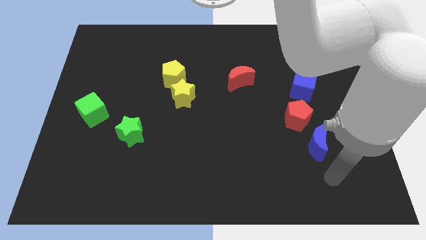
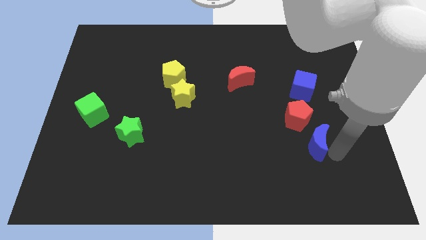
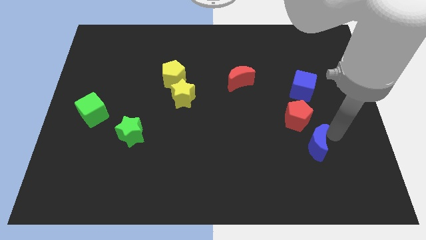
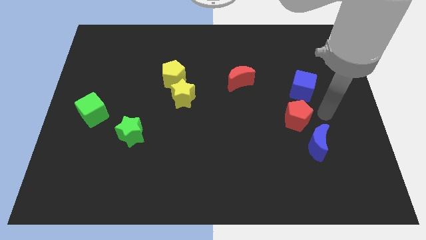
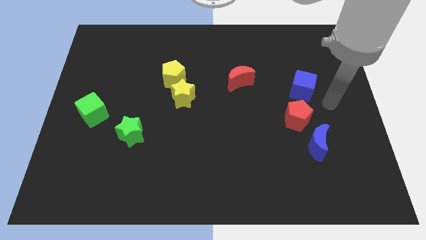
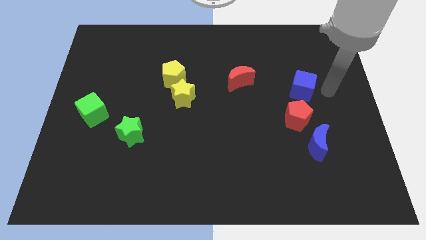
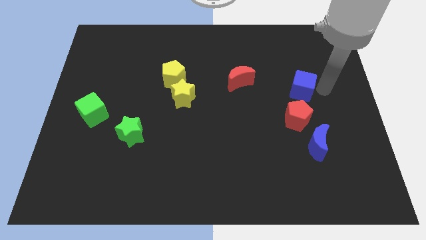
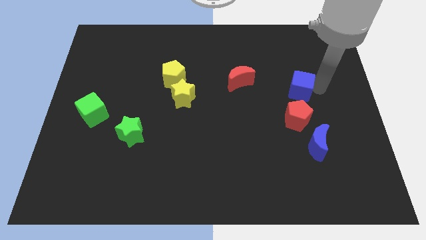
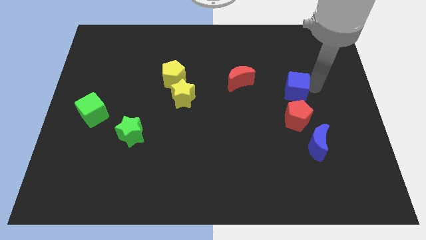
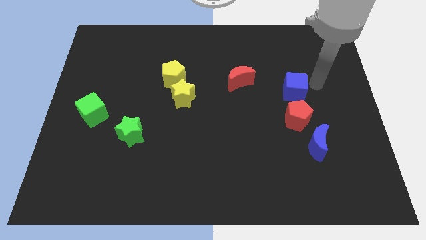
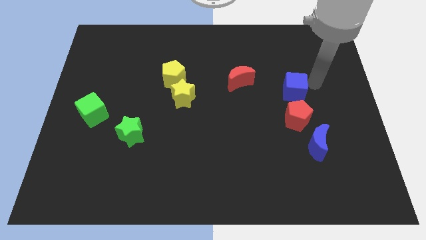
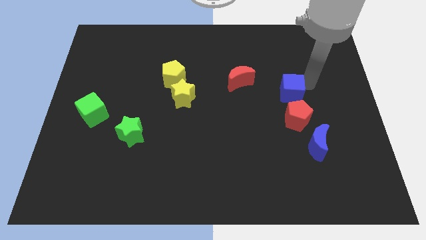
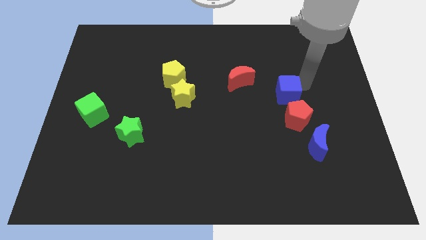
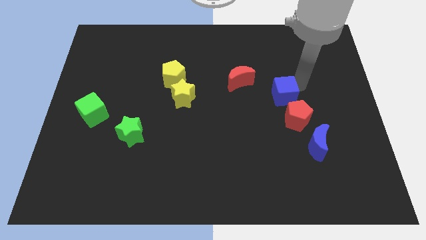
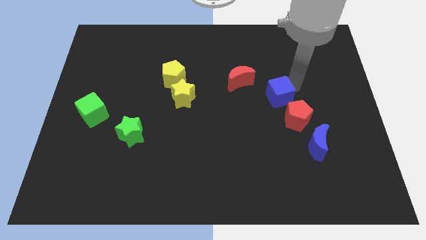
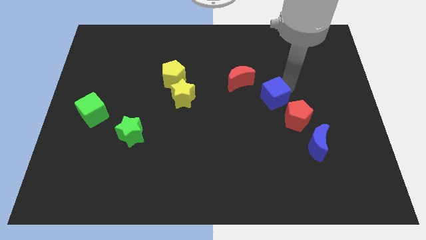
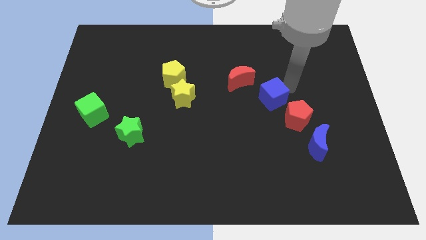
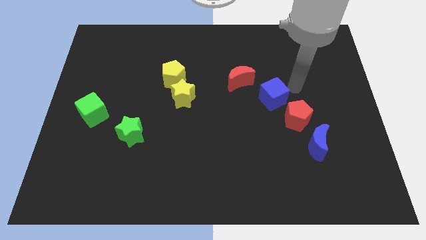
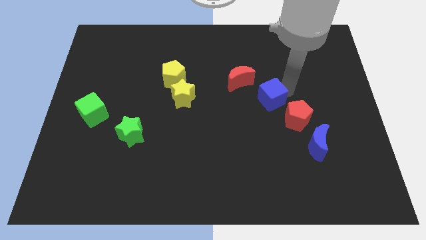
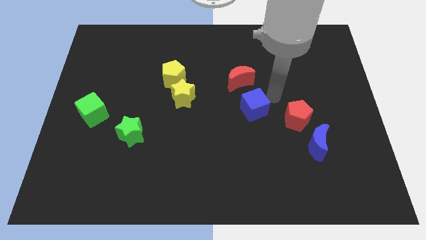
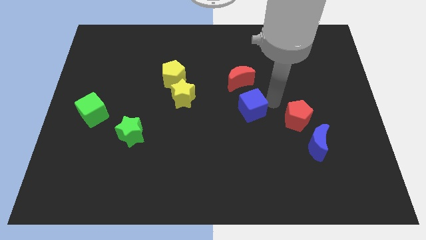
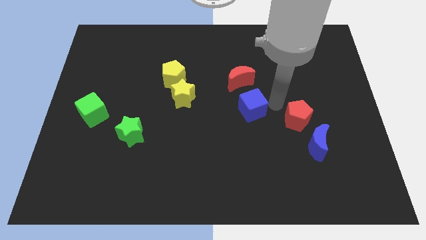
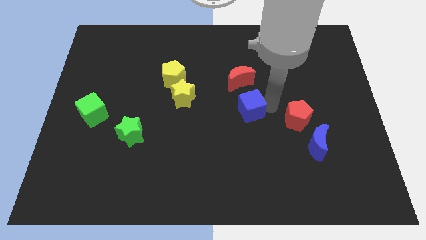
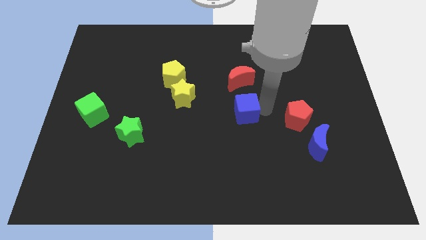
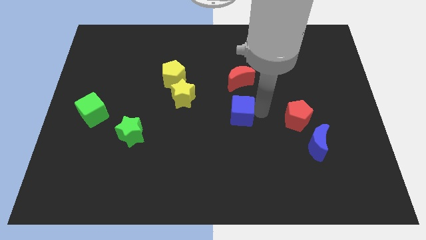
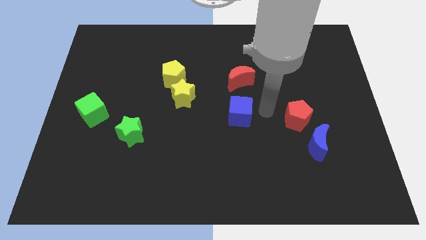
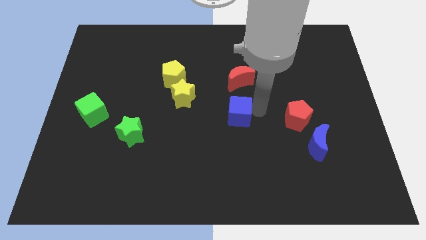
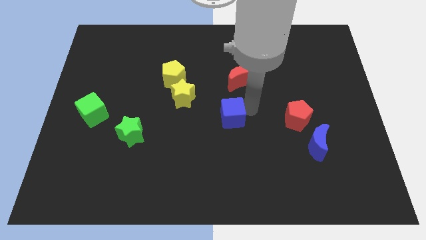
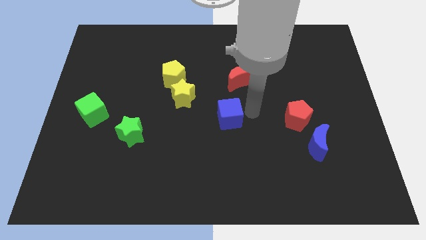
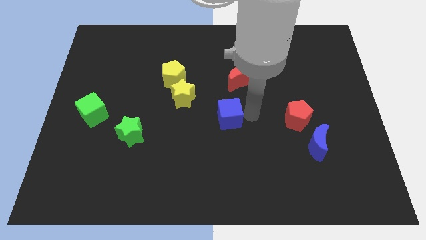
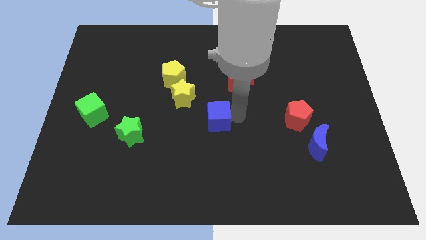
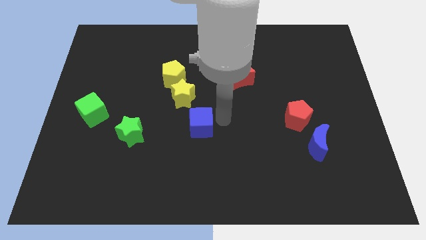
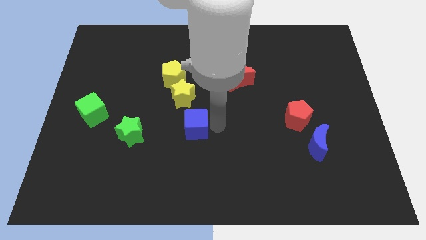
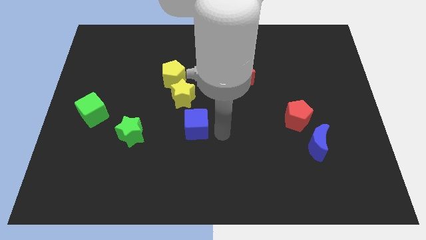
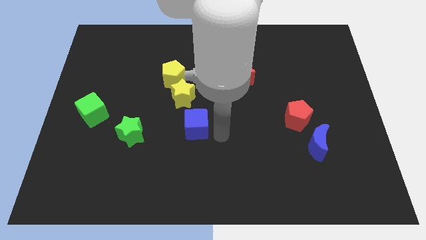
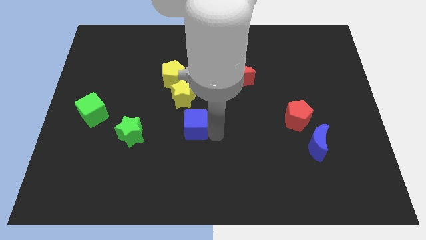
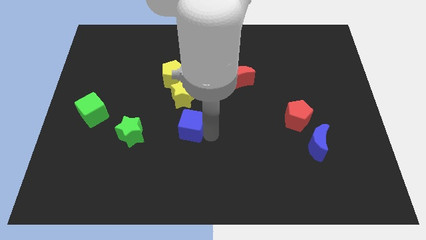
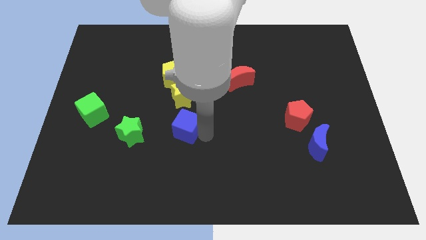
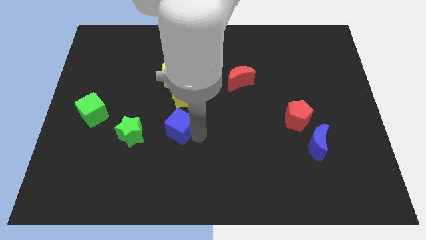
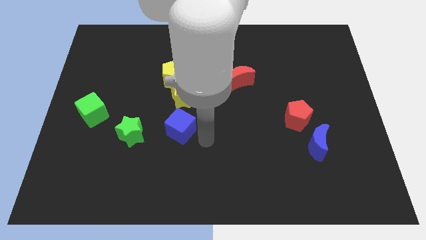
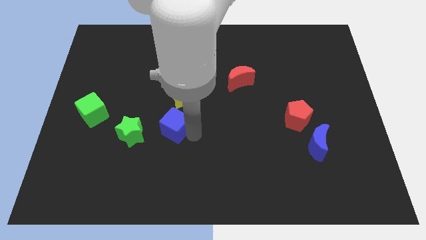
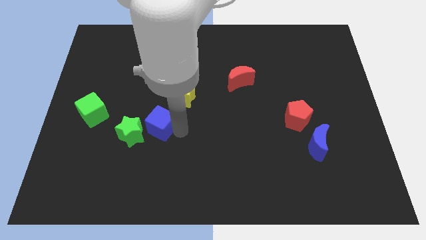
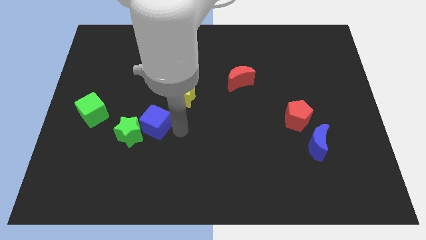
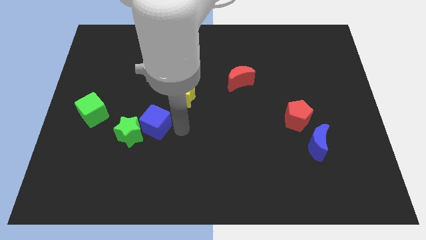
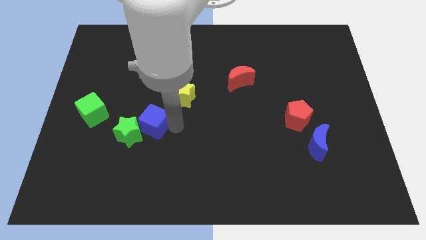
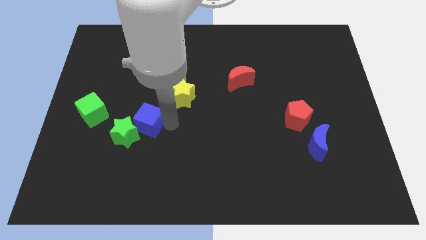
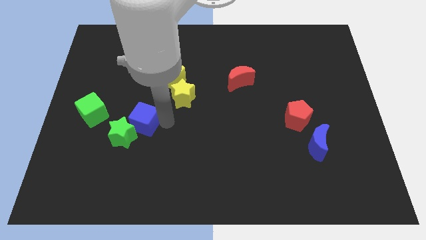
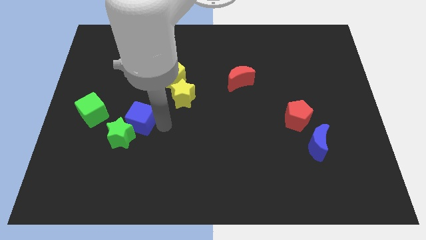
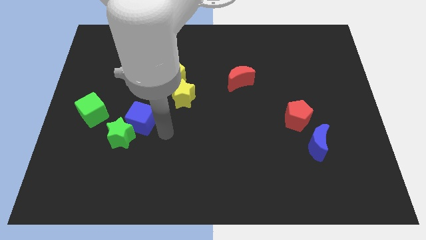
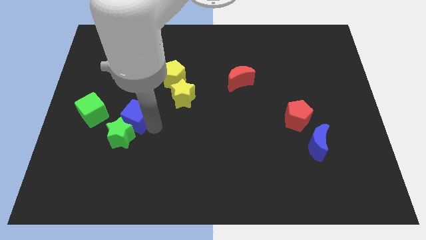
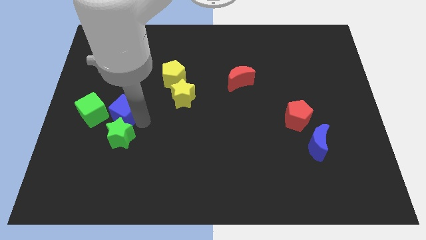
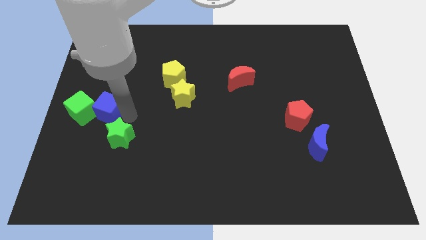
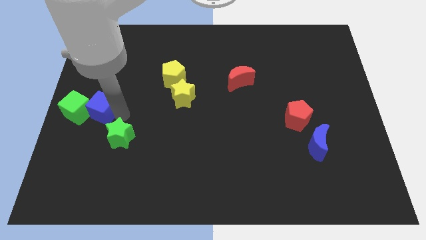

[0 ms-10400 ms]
move the blue cube to the left side

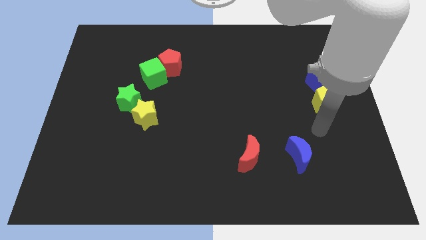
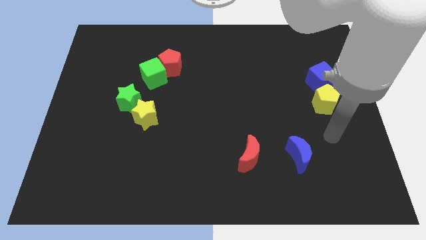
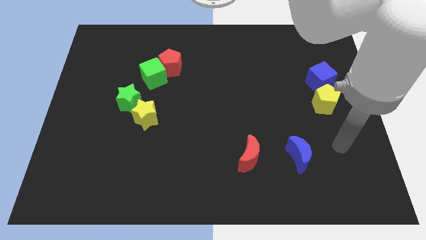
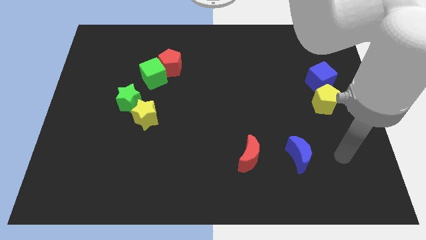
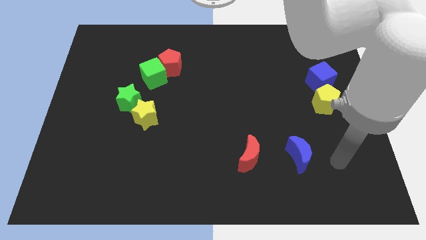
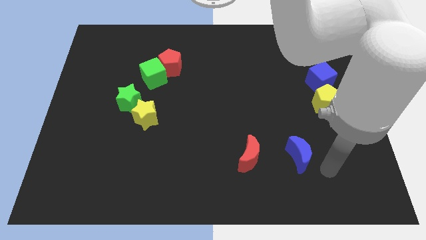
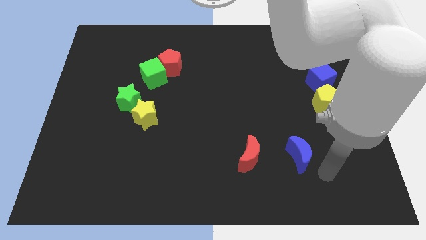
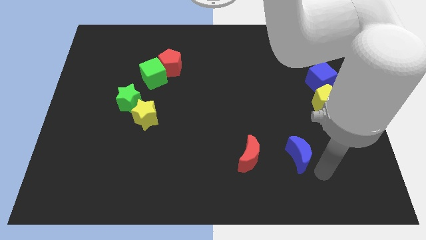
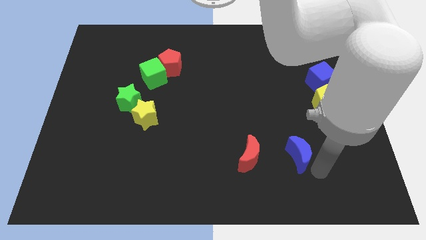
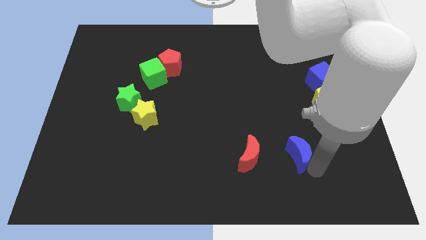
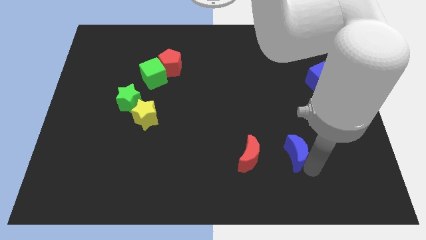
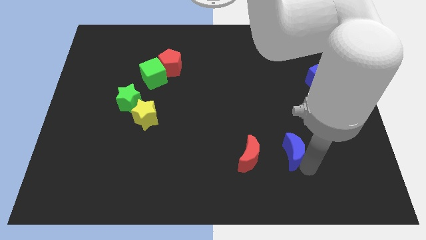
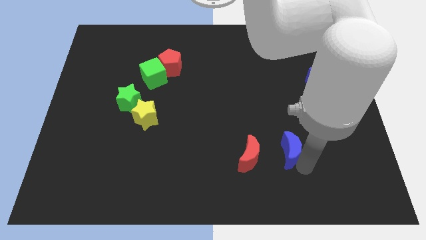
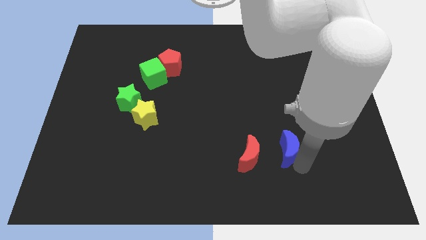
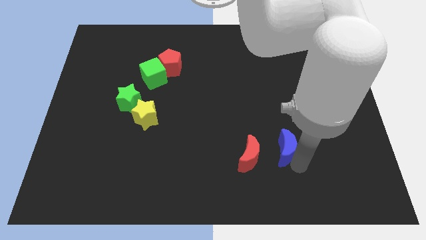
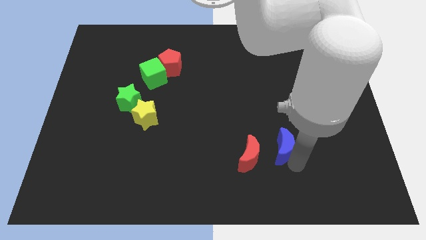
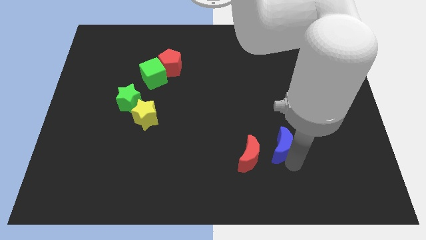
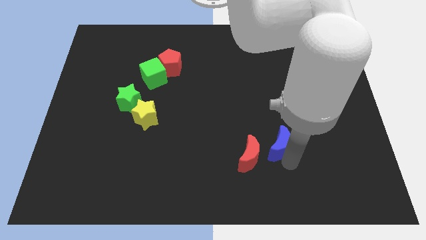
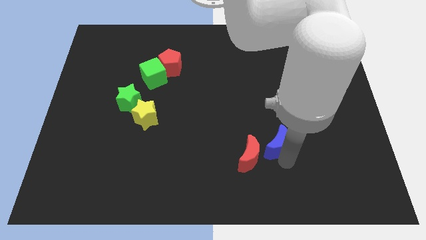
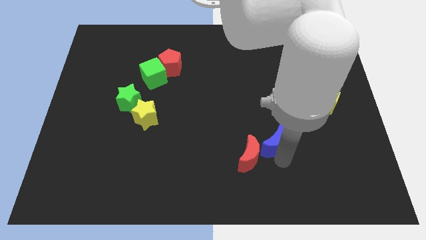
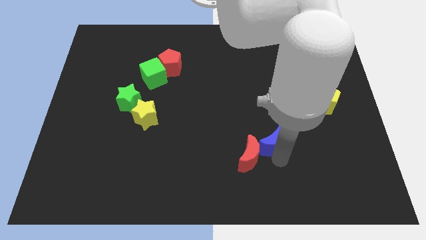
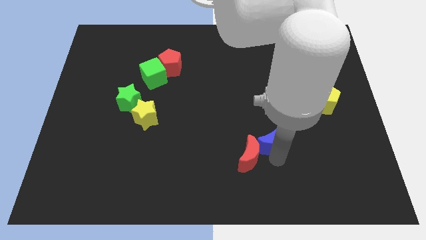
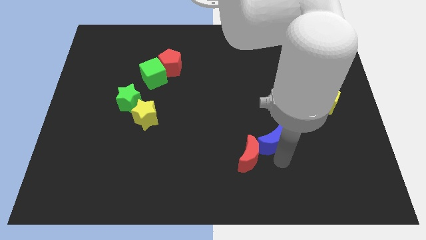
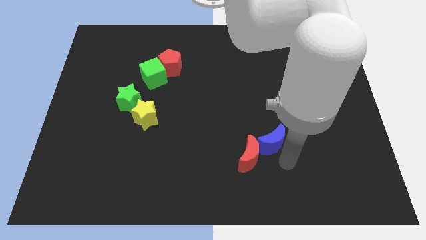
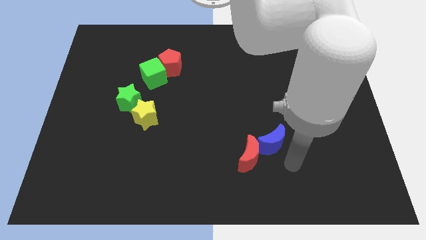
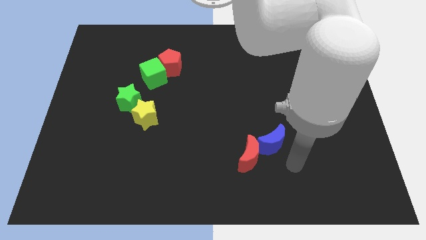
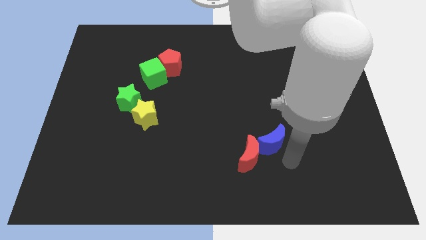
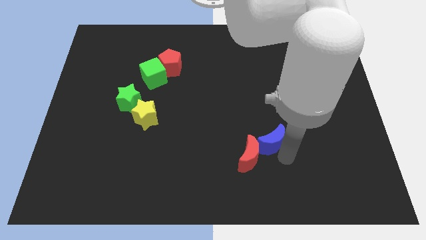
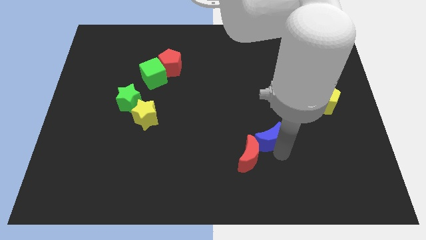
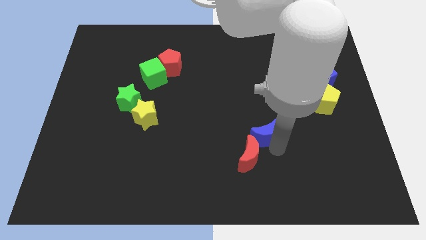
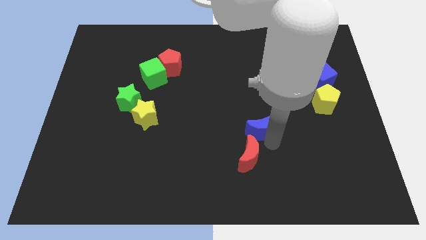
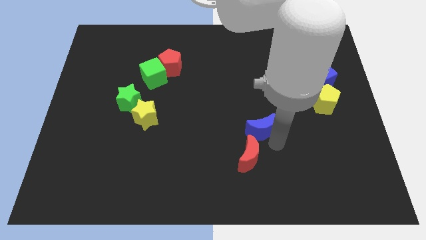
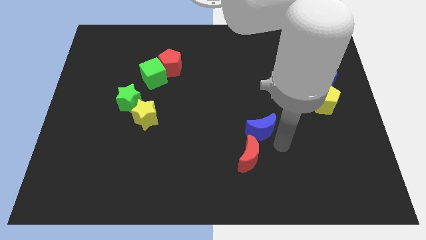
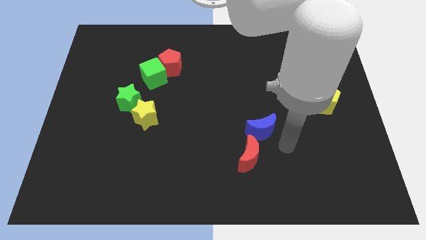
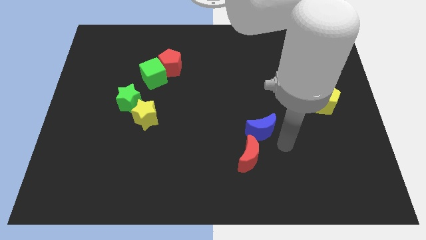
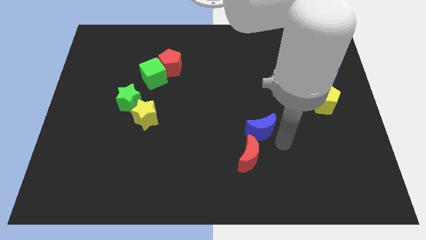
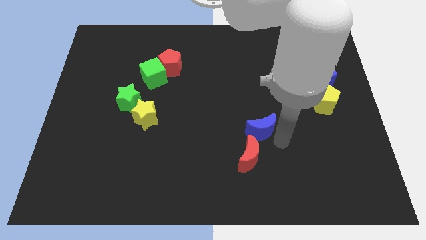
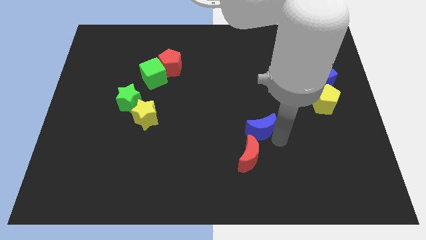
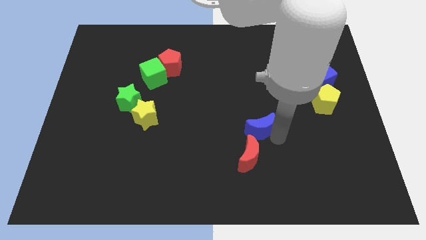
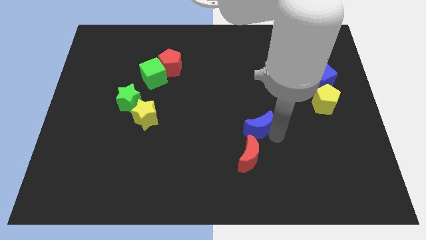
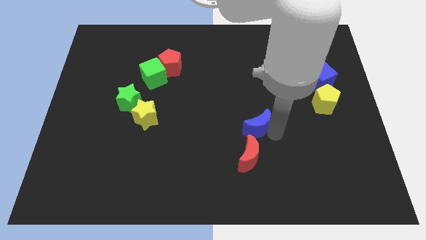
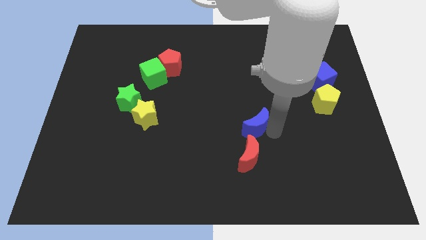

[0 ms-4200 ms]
slide the blue moon to the center
